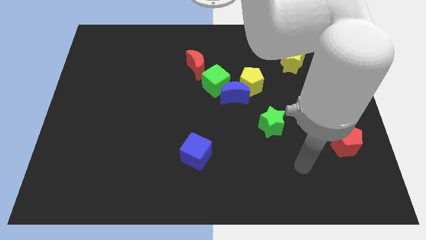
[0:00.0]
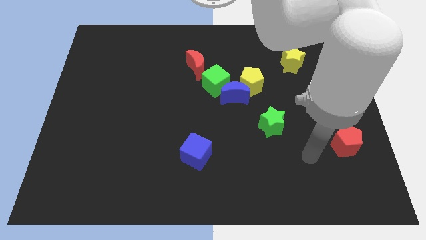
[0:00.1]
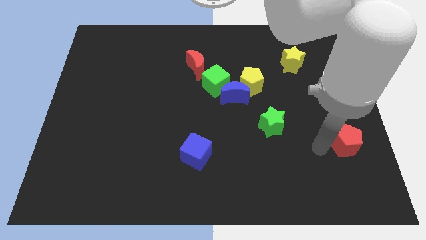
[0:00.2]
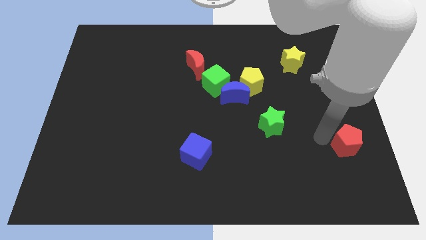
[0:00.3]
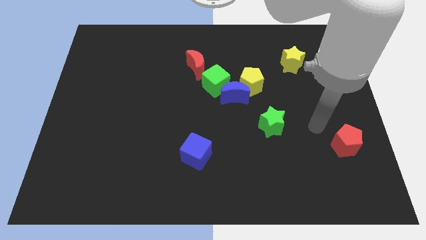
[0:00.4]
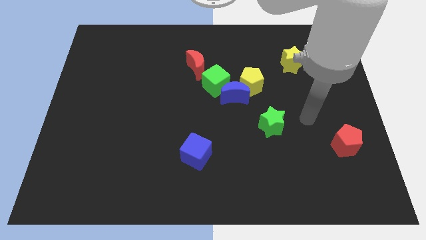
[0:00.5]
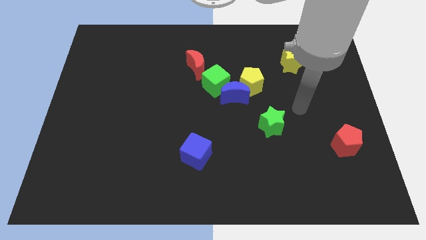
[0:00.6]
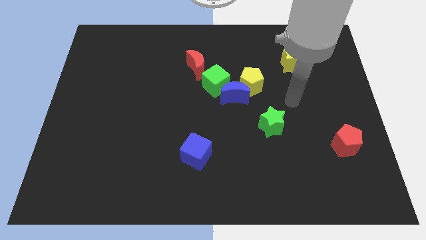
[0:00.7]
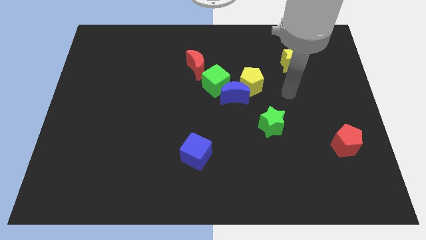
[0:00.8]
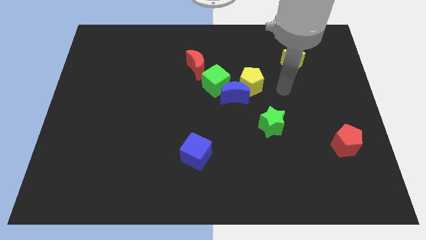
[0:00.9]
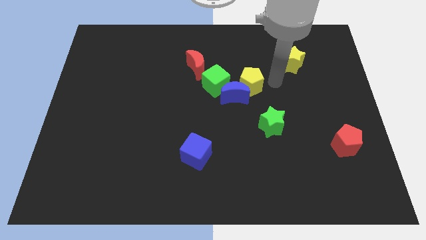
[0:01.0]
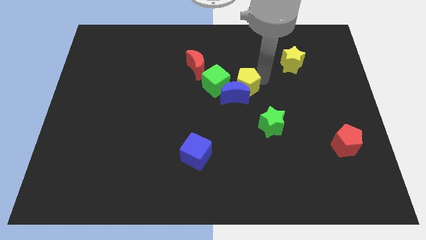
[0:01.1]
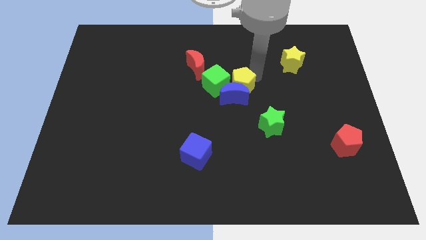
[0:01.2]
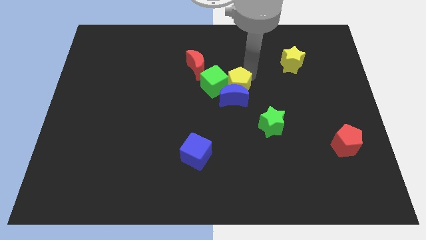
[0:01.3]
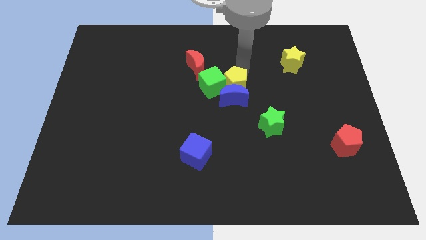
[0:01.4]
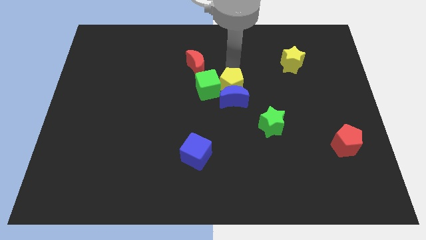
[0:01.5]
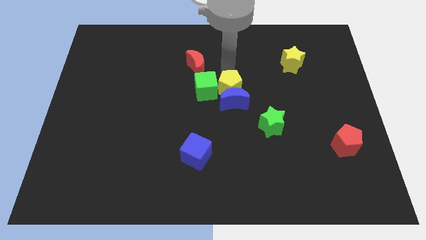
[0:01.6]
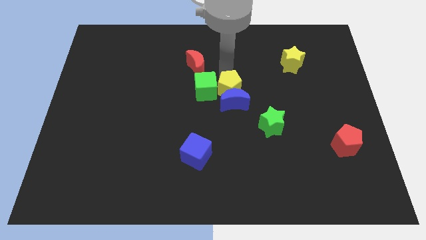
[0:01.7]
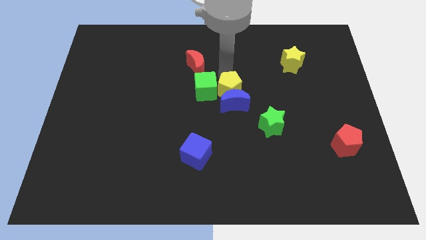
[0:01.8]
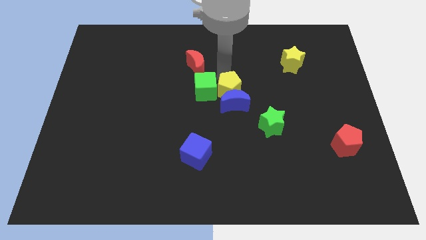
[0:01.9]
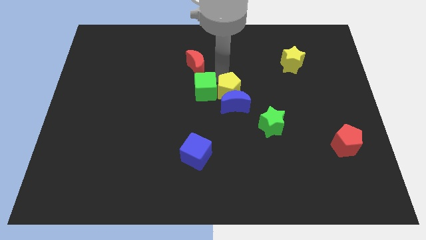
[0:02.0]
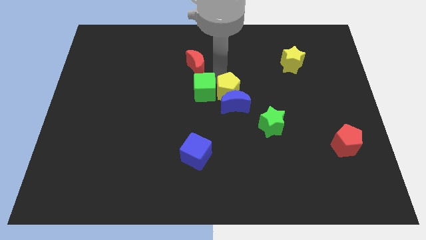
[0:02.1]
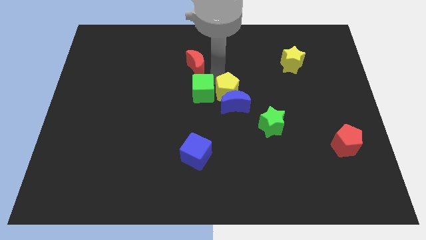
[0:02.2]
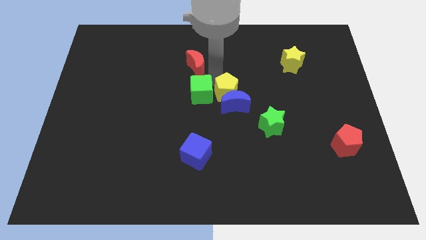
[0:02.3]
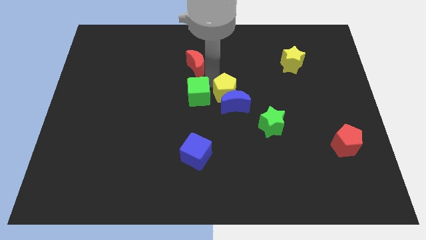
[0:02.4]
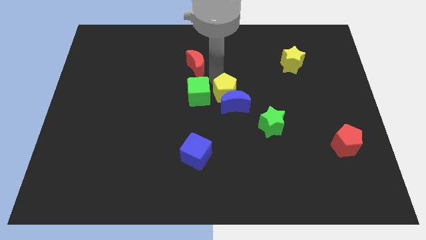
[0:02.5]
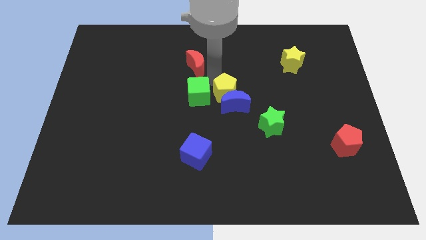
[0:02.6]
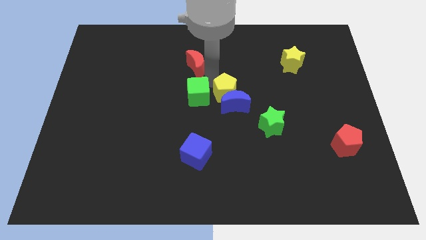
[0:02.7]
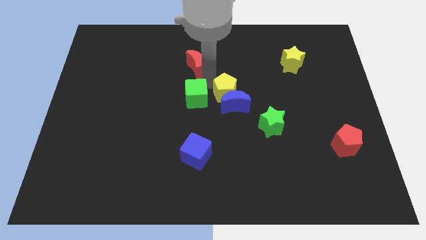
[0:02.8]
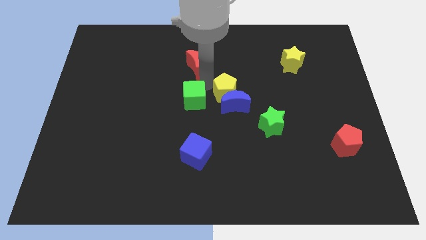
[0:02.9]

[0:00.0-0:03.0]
move the green cube diagonally downwards and to the left a little bit

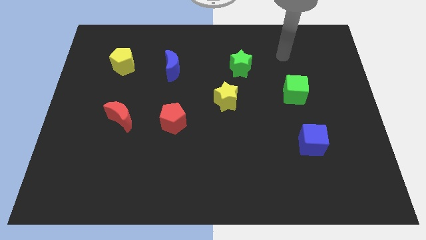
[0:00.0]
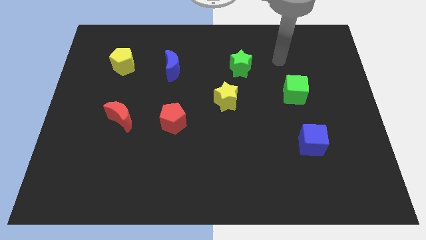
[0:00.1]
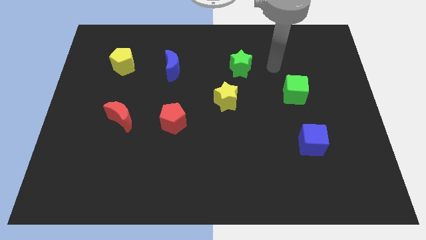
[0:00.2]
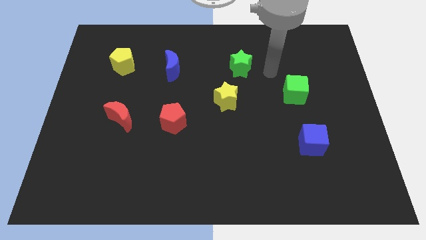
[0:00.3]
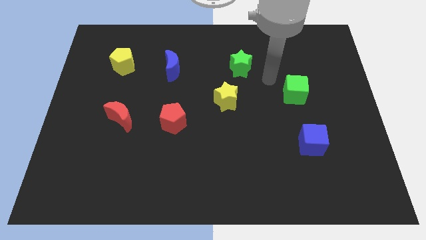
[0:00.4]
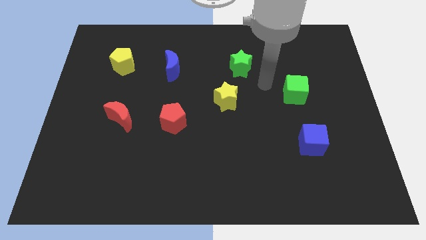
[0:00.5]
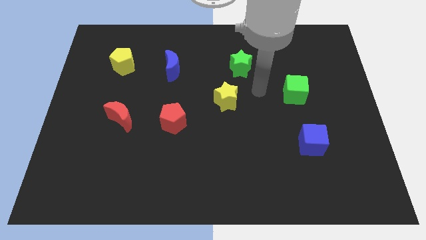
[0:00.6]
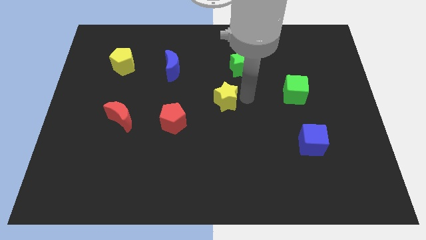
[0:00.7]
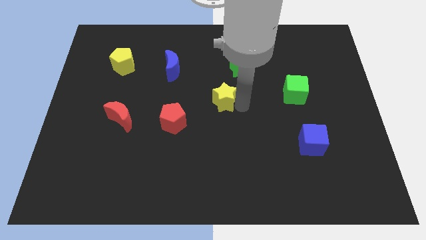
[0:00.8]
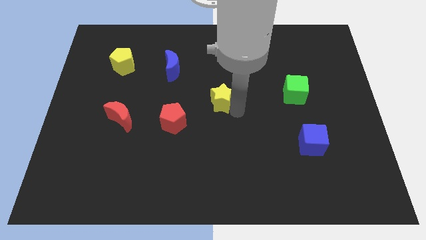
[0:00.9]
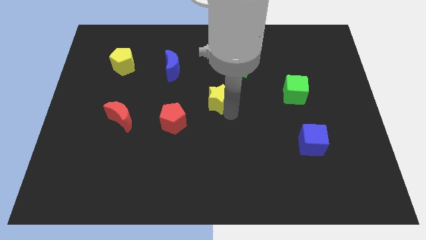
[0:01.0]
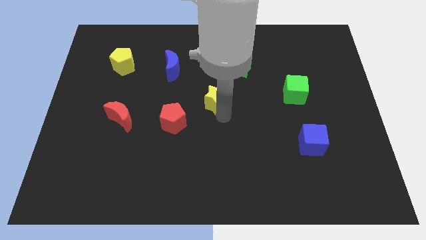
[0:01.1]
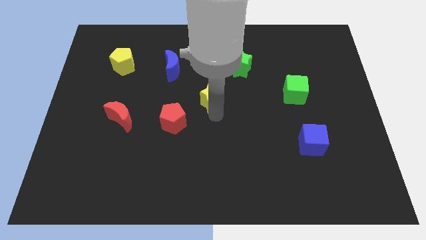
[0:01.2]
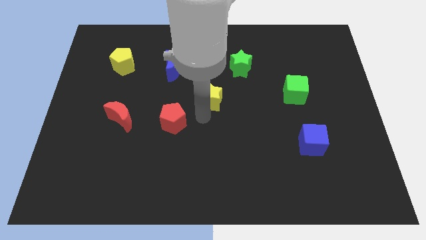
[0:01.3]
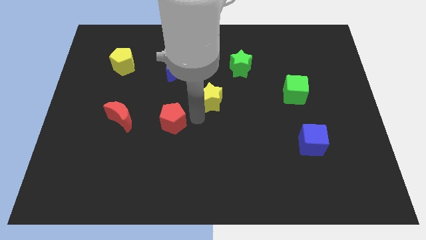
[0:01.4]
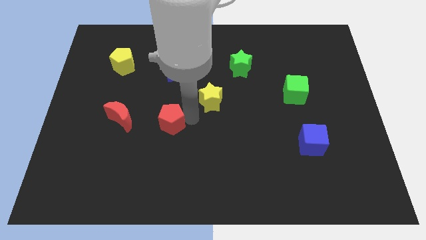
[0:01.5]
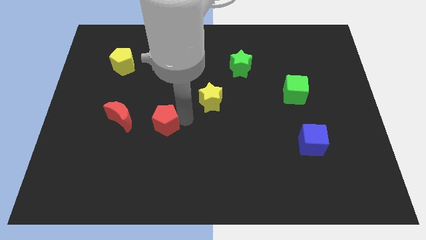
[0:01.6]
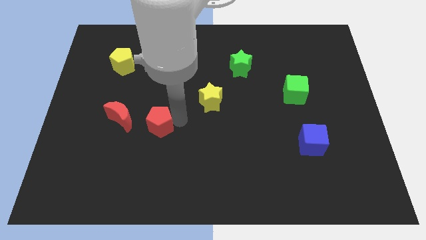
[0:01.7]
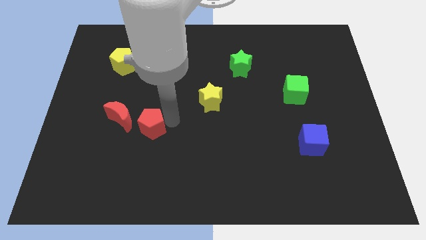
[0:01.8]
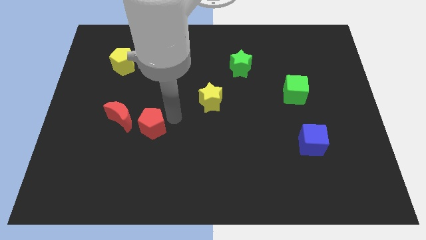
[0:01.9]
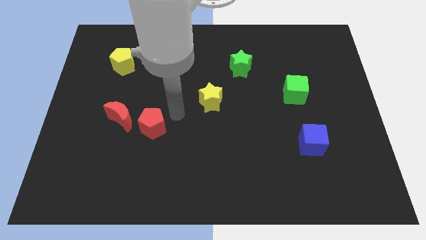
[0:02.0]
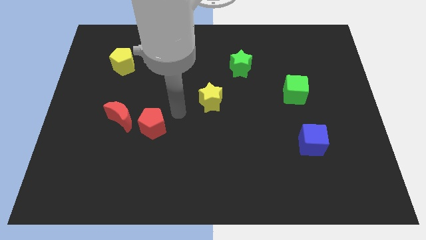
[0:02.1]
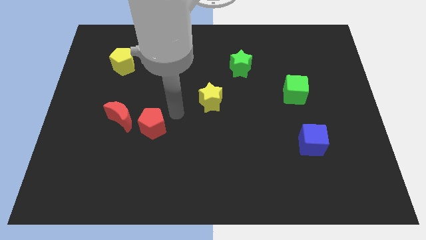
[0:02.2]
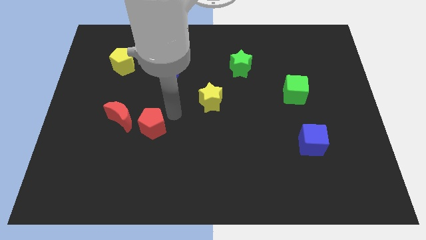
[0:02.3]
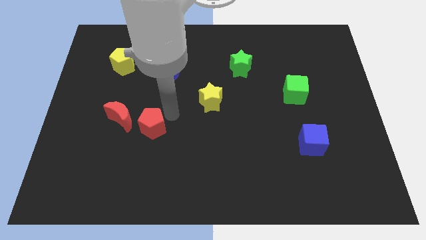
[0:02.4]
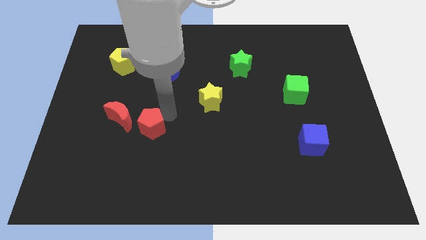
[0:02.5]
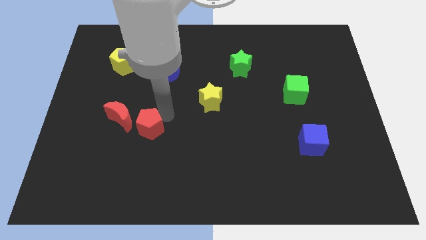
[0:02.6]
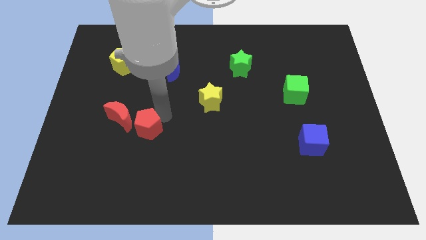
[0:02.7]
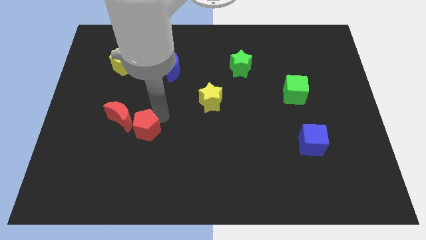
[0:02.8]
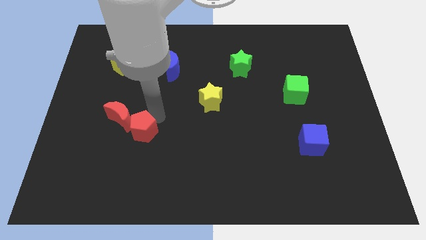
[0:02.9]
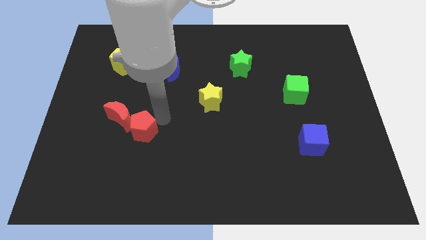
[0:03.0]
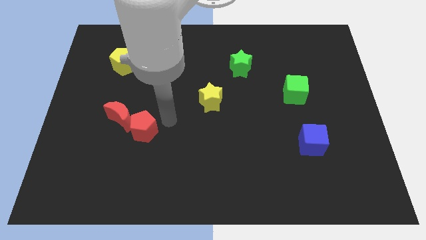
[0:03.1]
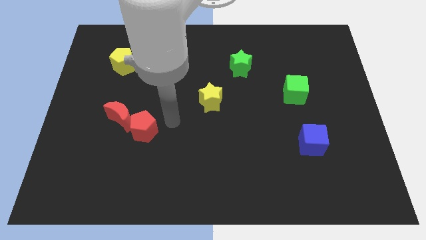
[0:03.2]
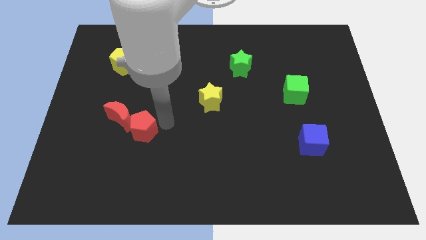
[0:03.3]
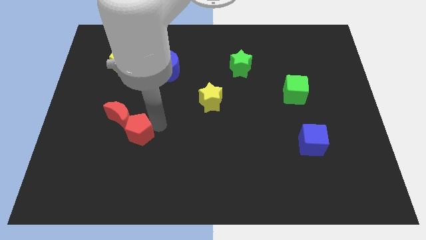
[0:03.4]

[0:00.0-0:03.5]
slide the red pentagon to the left a bit

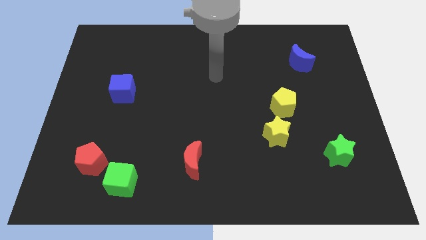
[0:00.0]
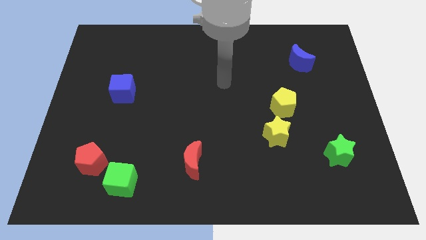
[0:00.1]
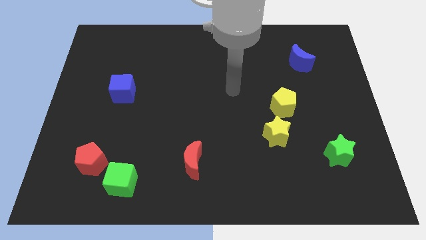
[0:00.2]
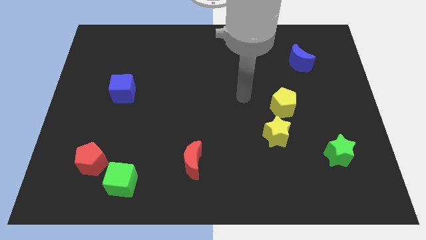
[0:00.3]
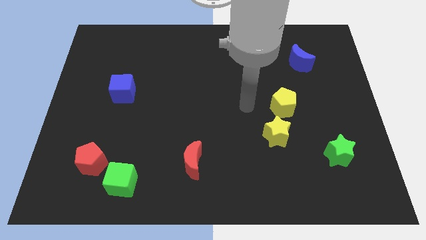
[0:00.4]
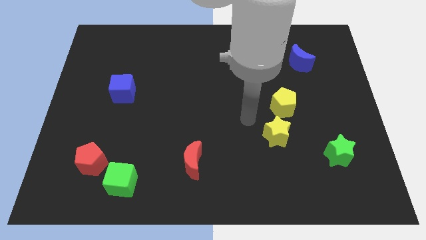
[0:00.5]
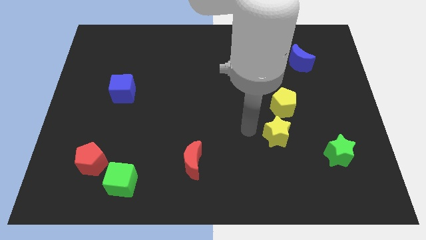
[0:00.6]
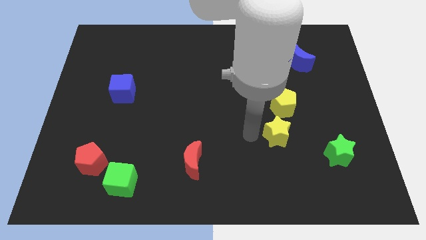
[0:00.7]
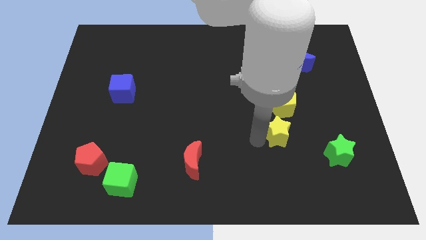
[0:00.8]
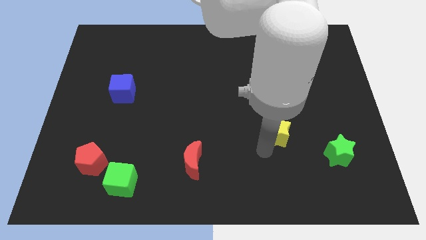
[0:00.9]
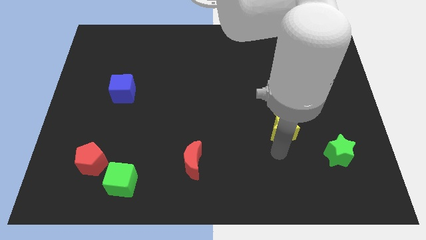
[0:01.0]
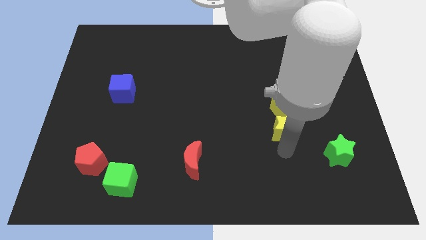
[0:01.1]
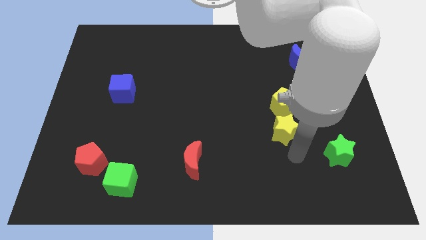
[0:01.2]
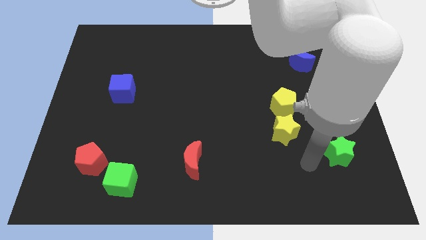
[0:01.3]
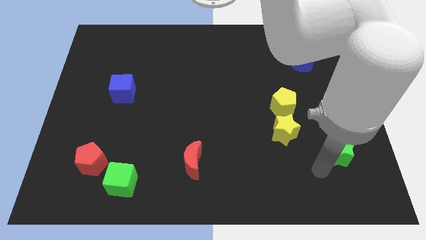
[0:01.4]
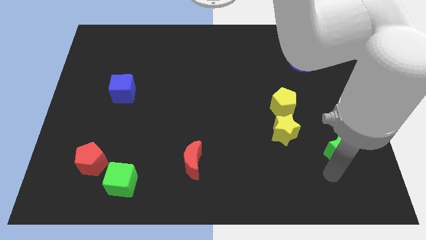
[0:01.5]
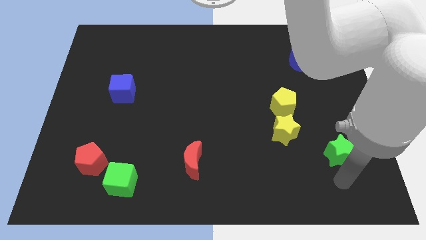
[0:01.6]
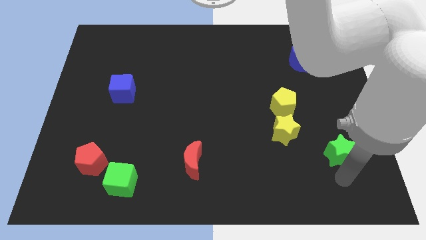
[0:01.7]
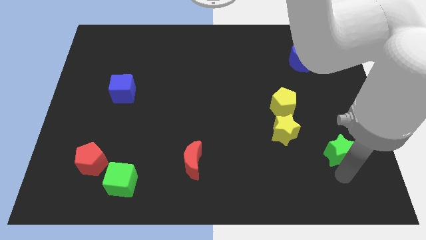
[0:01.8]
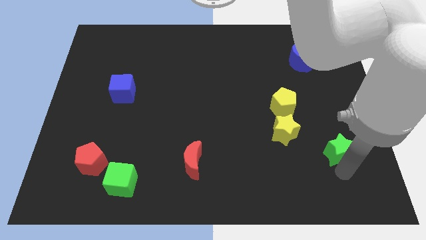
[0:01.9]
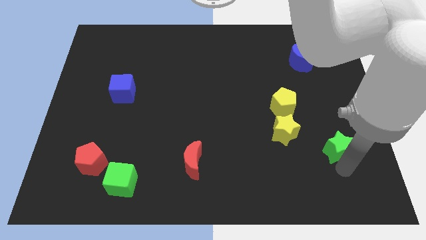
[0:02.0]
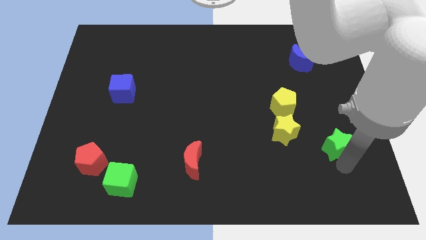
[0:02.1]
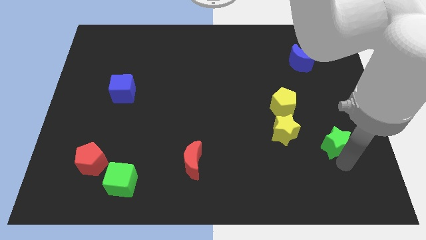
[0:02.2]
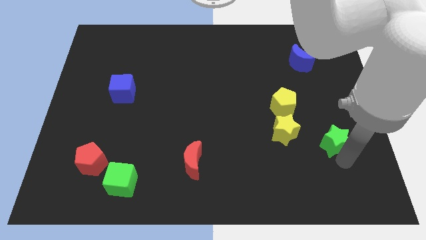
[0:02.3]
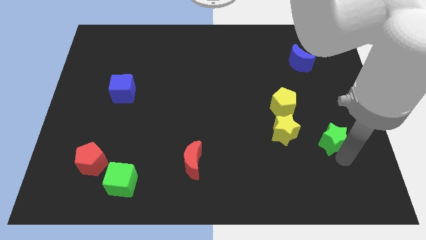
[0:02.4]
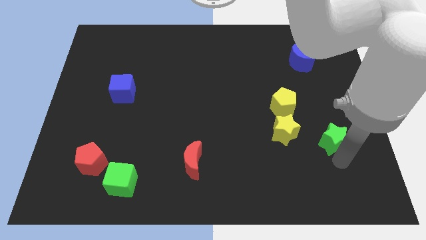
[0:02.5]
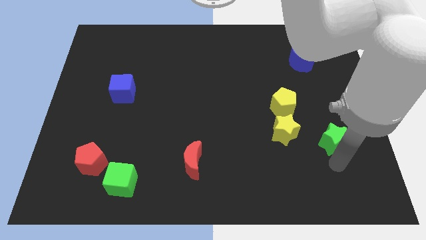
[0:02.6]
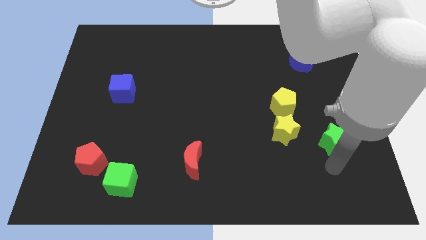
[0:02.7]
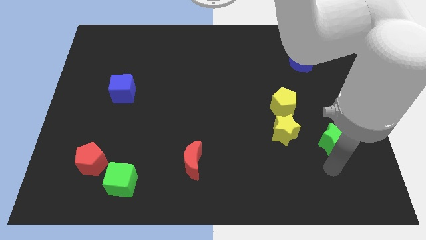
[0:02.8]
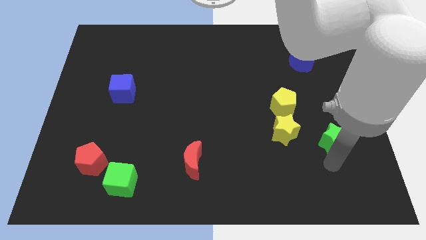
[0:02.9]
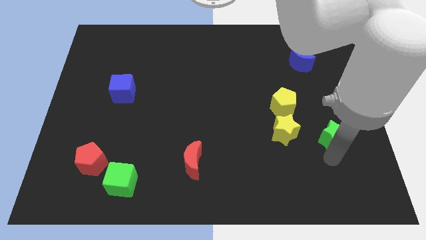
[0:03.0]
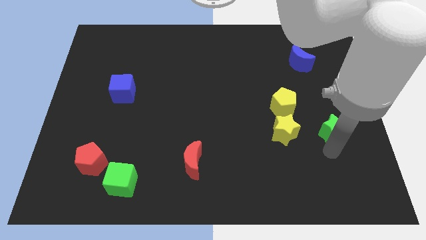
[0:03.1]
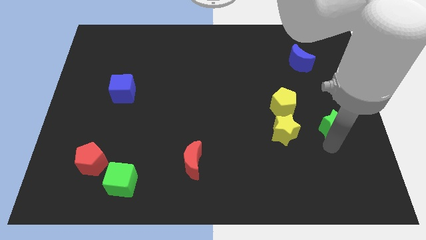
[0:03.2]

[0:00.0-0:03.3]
push the green star up a little
